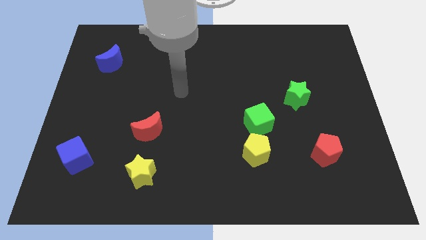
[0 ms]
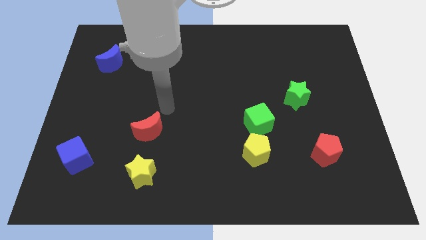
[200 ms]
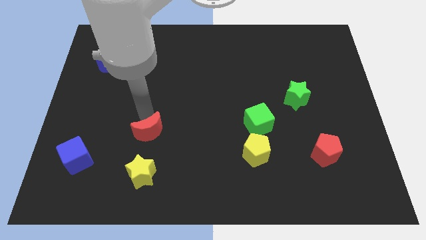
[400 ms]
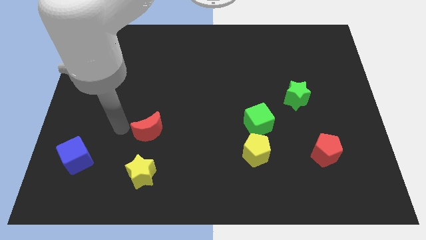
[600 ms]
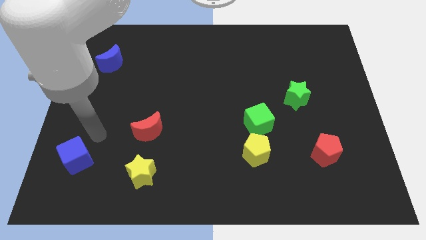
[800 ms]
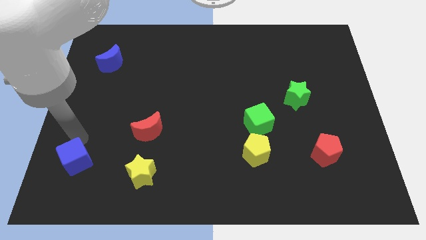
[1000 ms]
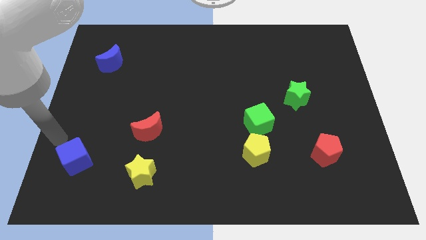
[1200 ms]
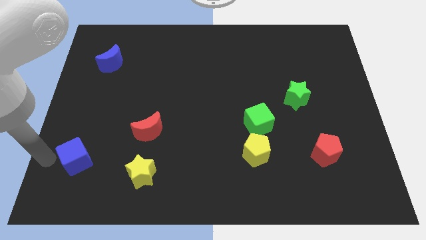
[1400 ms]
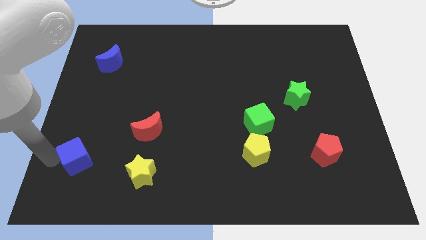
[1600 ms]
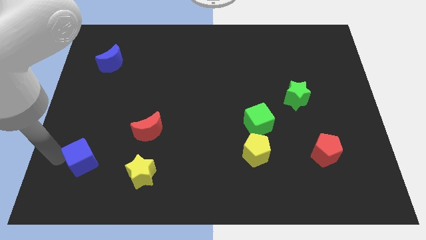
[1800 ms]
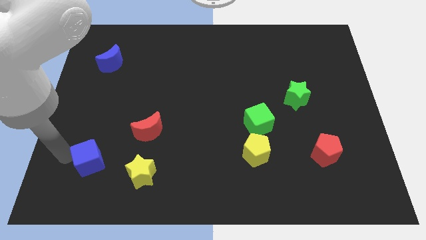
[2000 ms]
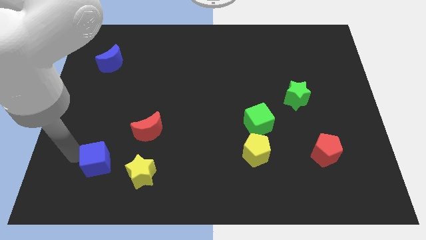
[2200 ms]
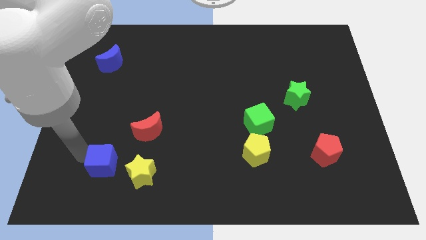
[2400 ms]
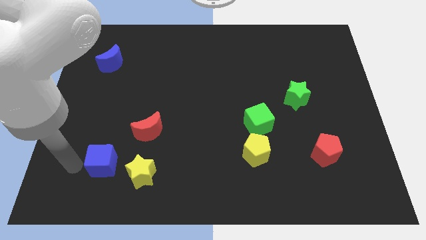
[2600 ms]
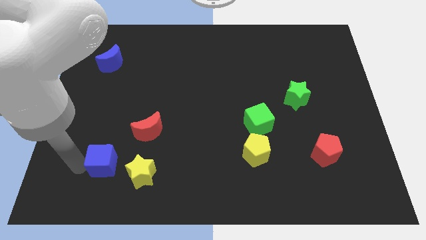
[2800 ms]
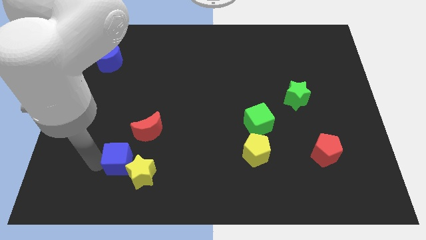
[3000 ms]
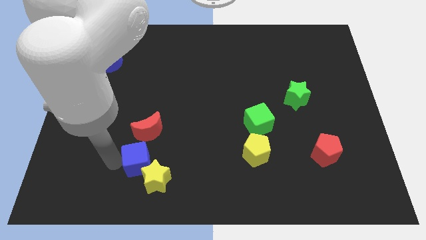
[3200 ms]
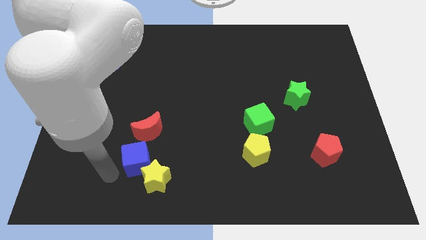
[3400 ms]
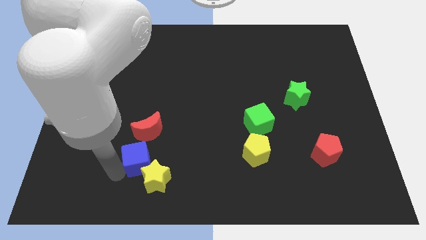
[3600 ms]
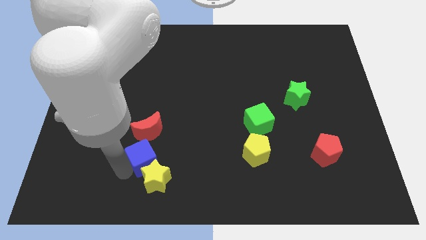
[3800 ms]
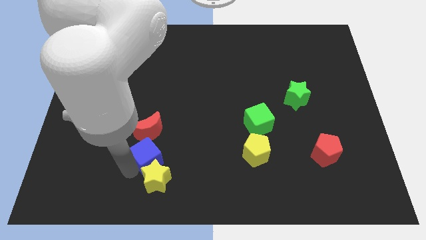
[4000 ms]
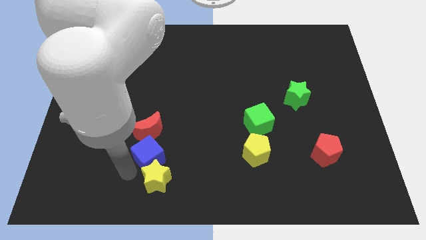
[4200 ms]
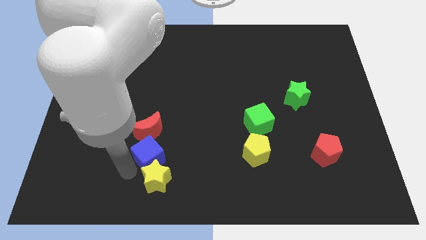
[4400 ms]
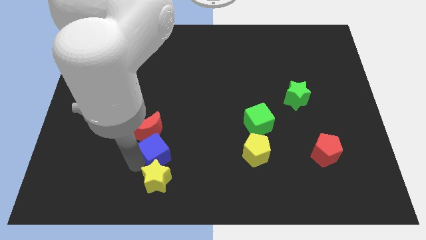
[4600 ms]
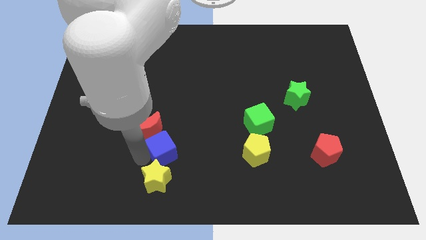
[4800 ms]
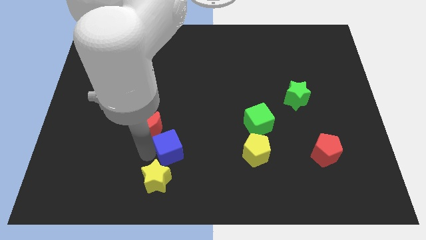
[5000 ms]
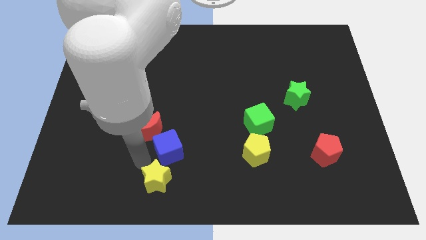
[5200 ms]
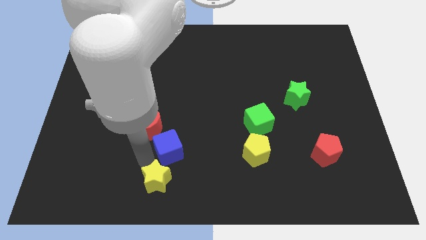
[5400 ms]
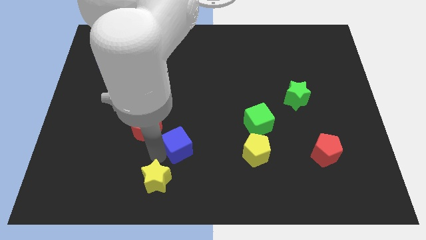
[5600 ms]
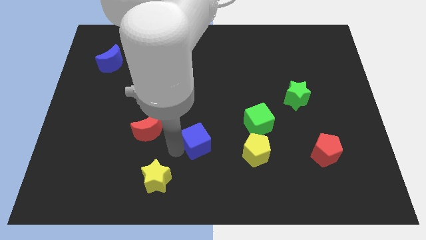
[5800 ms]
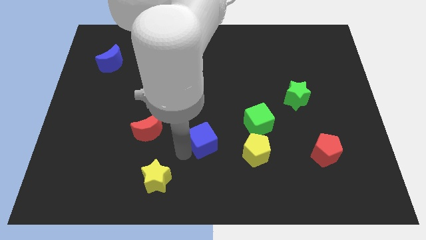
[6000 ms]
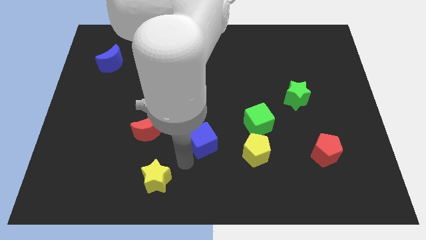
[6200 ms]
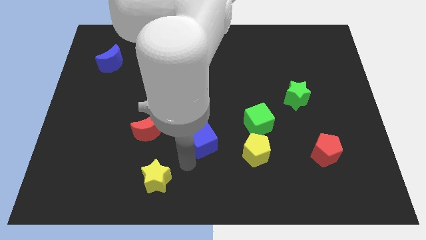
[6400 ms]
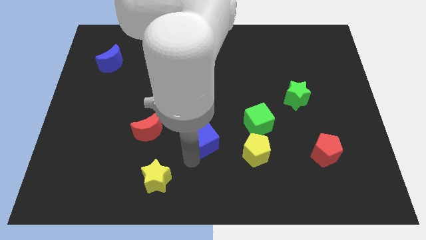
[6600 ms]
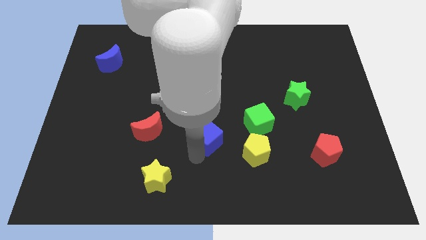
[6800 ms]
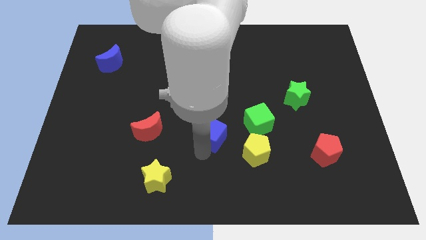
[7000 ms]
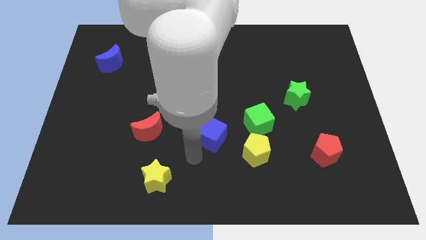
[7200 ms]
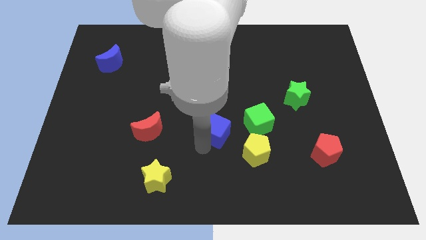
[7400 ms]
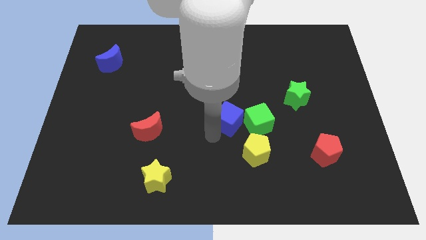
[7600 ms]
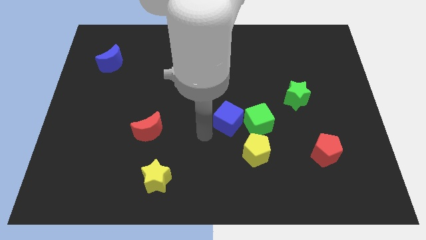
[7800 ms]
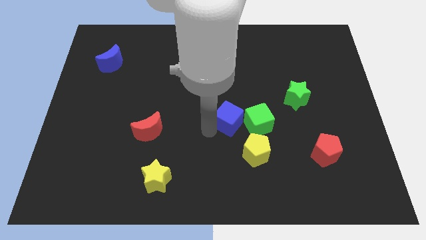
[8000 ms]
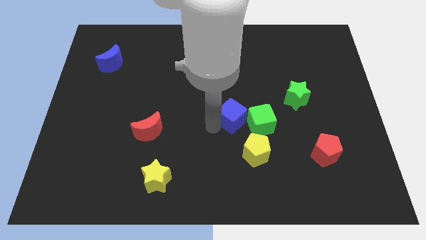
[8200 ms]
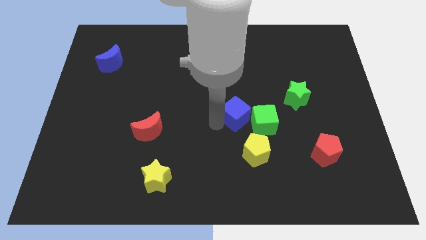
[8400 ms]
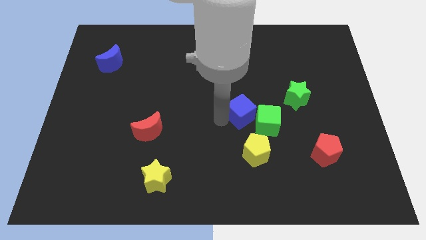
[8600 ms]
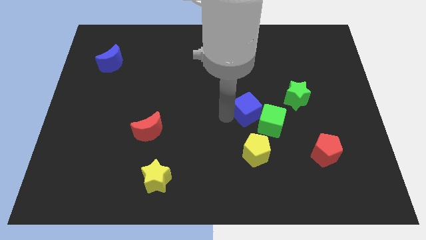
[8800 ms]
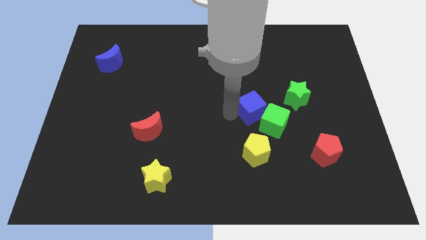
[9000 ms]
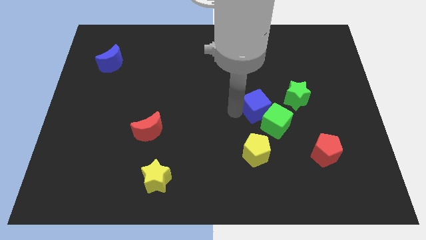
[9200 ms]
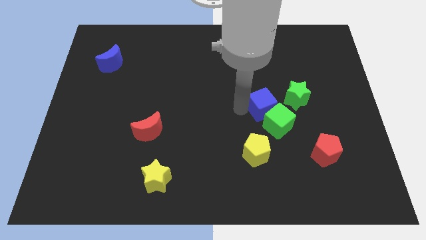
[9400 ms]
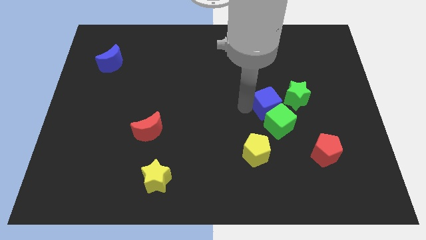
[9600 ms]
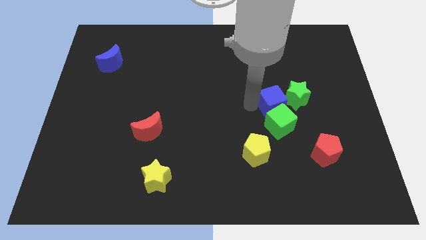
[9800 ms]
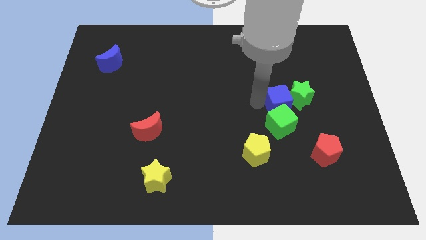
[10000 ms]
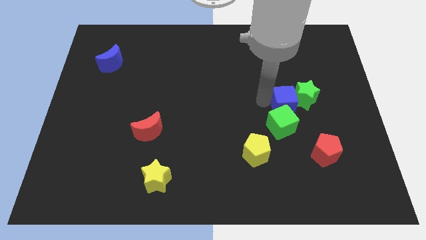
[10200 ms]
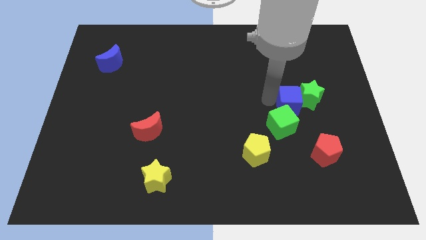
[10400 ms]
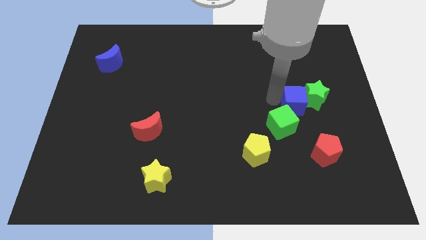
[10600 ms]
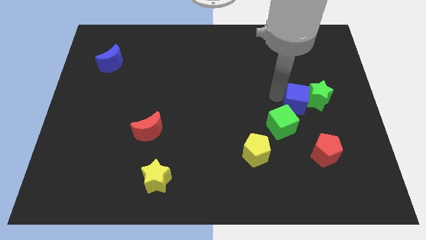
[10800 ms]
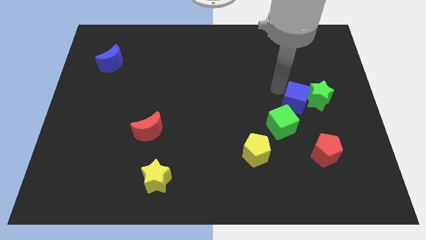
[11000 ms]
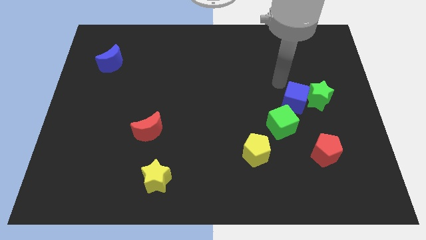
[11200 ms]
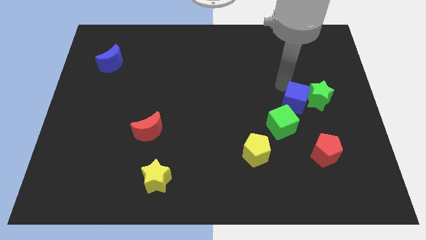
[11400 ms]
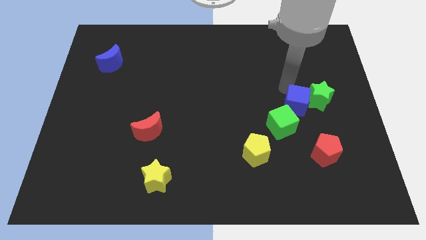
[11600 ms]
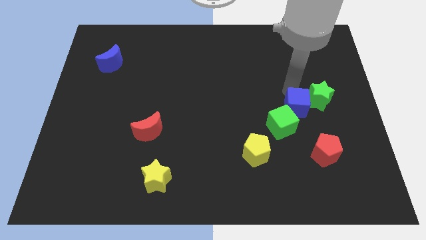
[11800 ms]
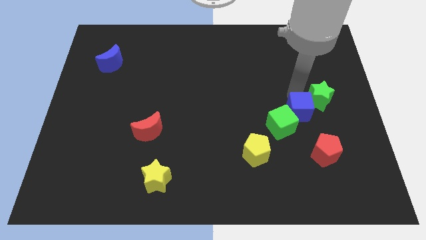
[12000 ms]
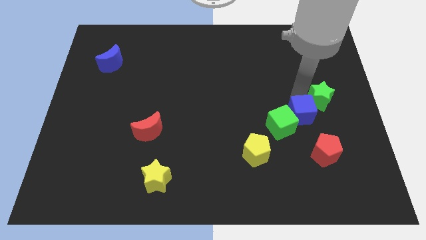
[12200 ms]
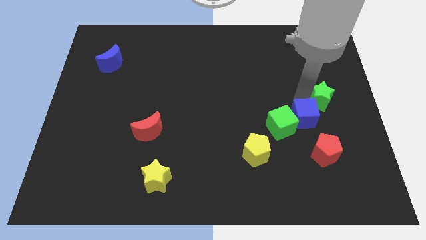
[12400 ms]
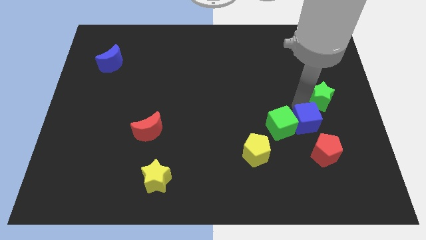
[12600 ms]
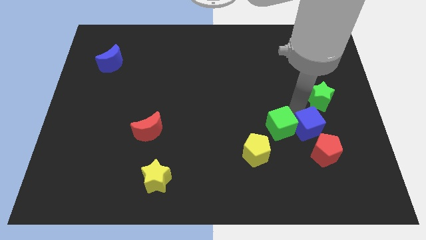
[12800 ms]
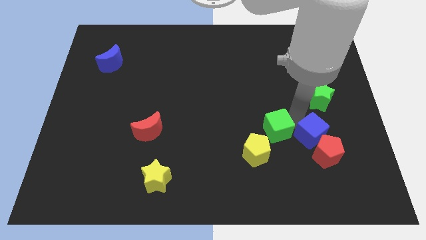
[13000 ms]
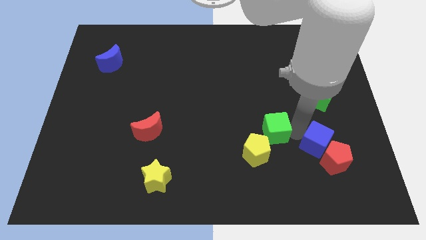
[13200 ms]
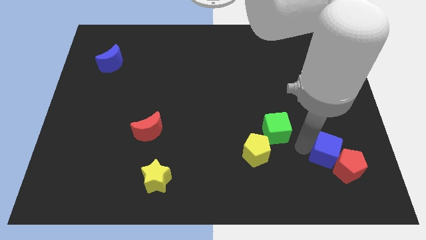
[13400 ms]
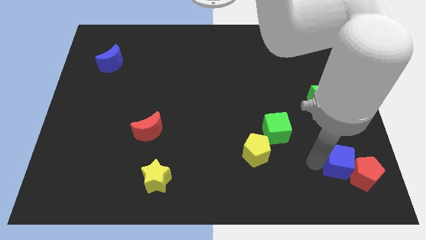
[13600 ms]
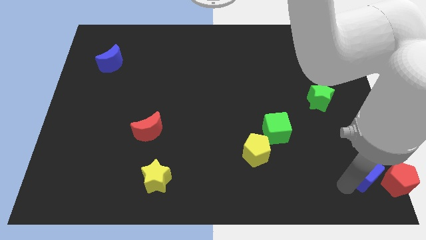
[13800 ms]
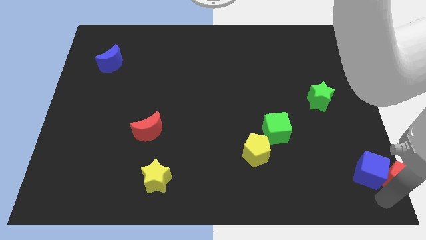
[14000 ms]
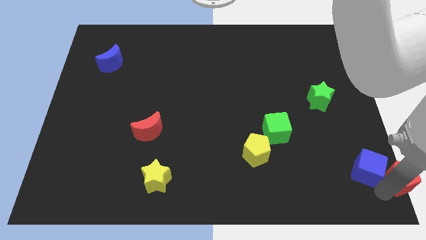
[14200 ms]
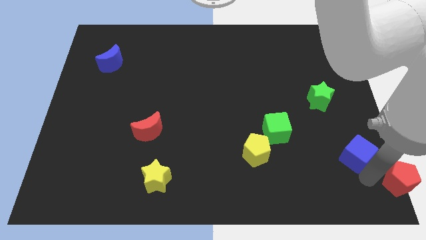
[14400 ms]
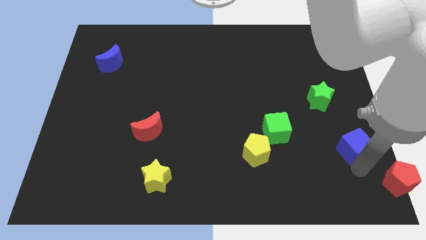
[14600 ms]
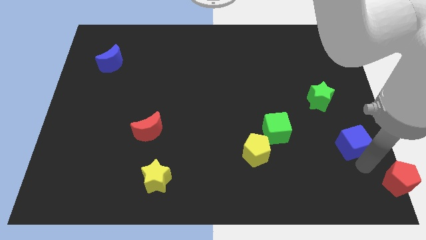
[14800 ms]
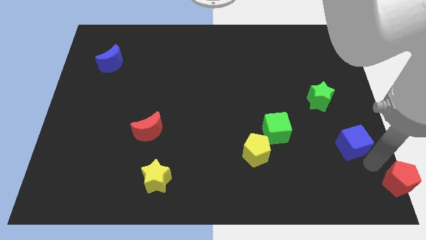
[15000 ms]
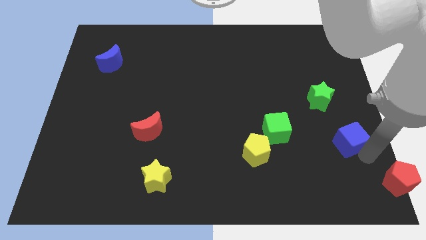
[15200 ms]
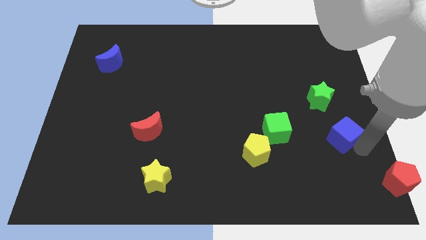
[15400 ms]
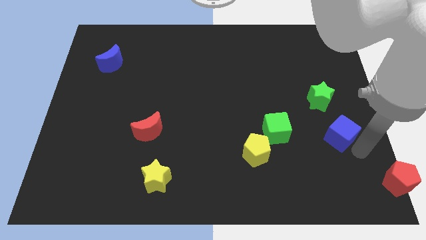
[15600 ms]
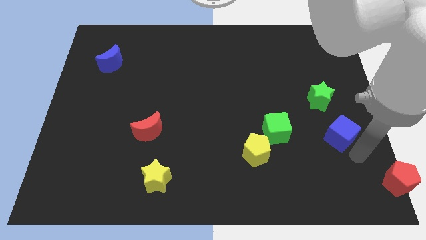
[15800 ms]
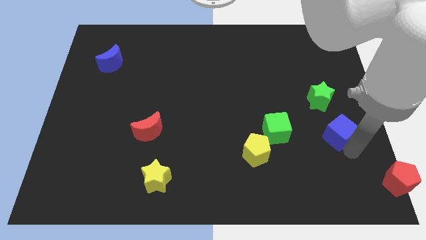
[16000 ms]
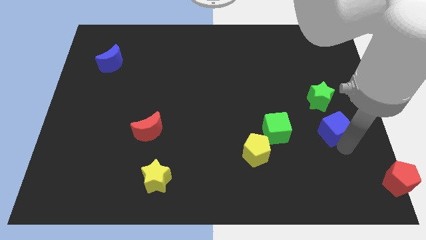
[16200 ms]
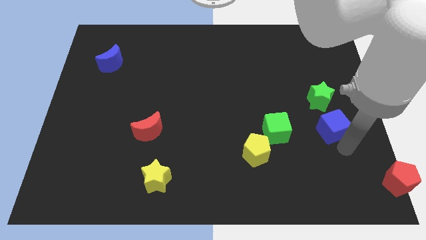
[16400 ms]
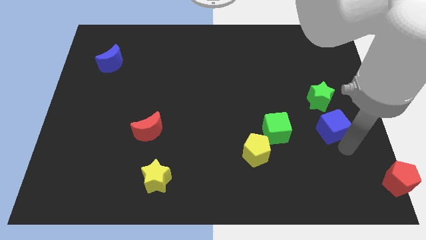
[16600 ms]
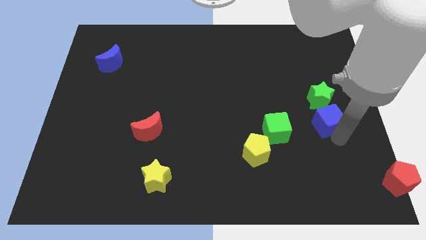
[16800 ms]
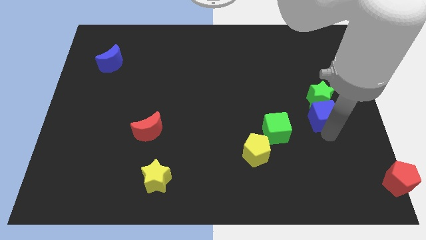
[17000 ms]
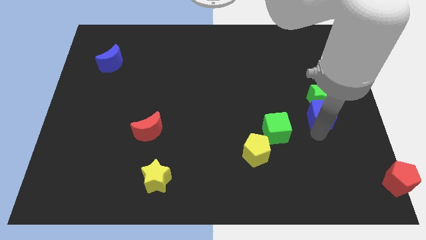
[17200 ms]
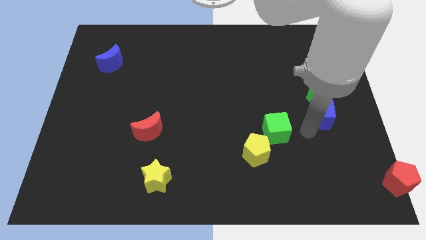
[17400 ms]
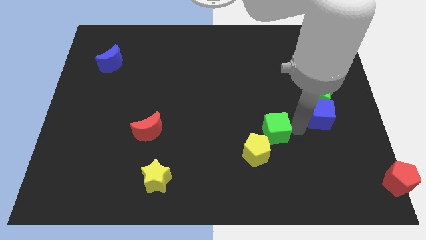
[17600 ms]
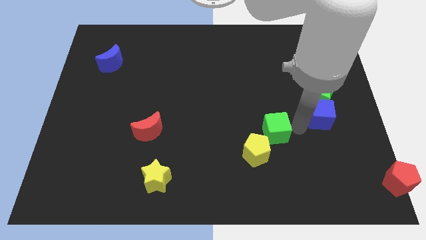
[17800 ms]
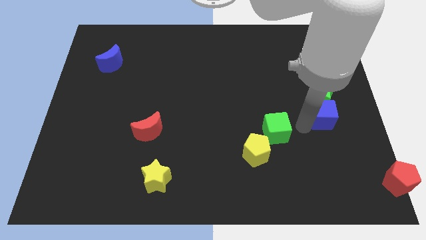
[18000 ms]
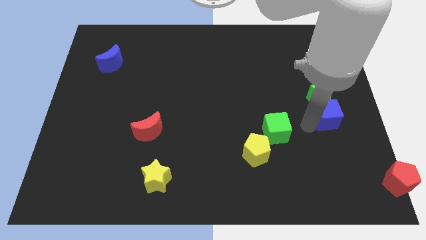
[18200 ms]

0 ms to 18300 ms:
push the blue cube to the center right
